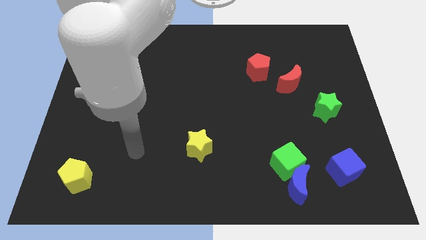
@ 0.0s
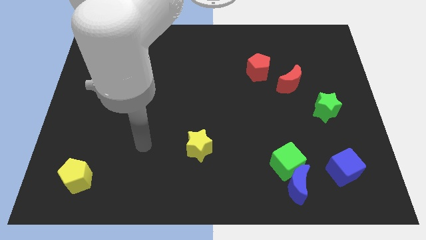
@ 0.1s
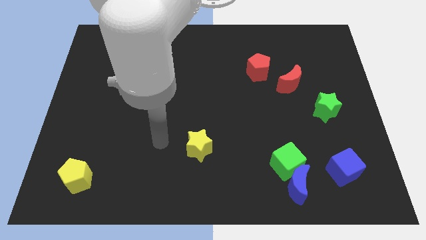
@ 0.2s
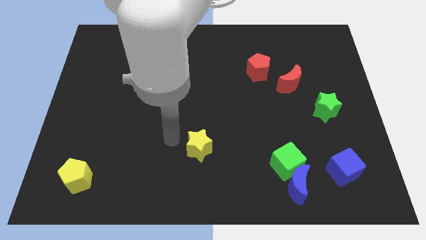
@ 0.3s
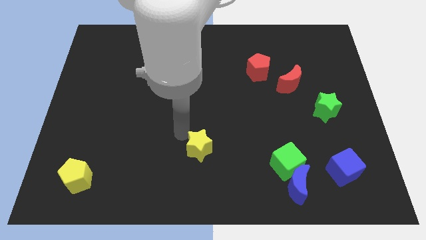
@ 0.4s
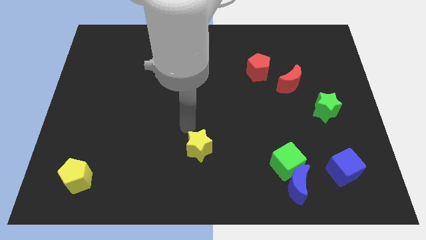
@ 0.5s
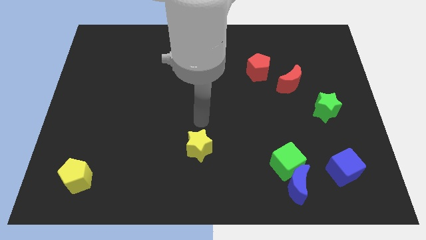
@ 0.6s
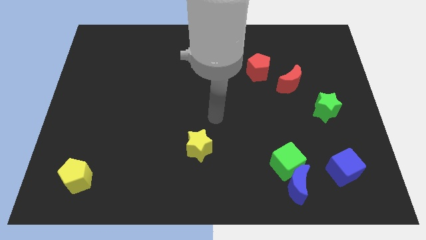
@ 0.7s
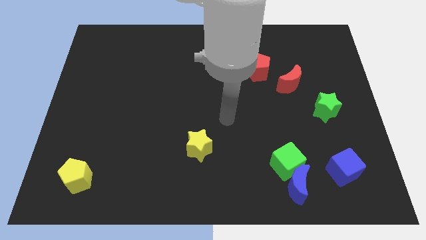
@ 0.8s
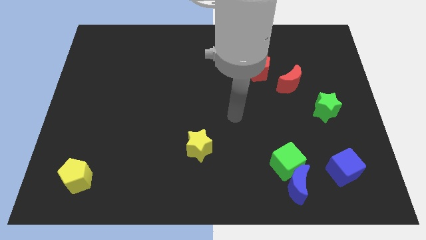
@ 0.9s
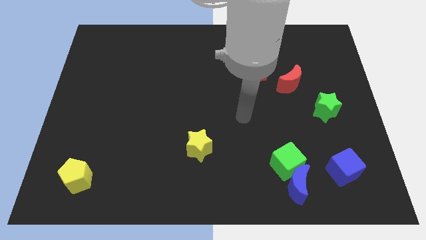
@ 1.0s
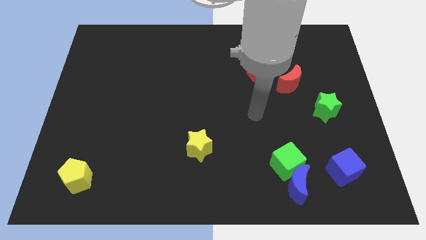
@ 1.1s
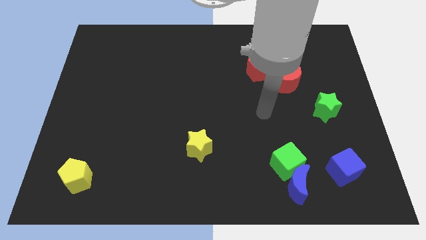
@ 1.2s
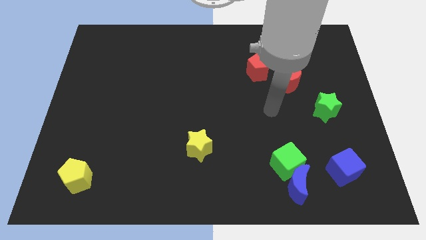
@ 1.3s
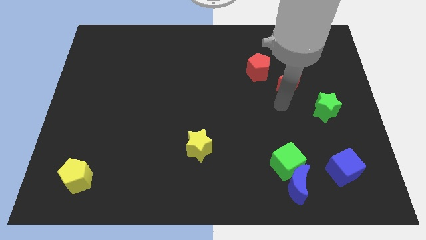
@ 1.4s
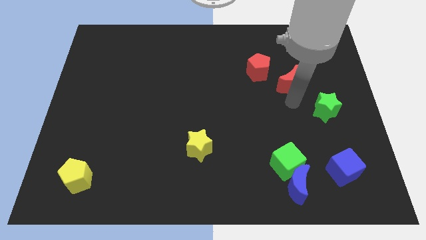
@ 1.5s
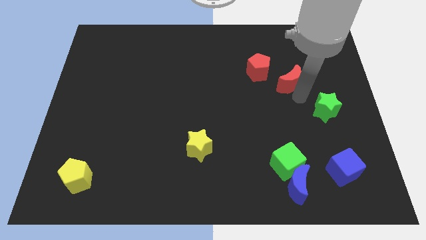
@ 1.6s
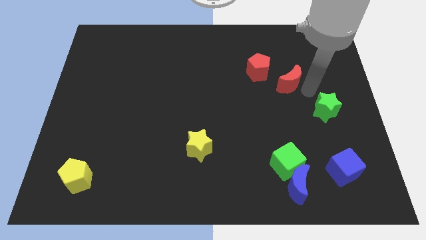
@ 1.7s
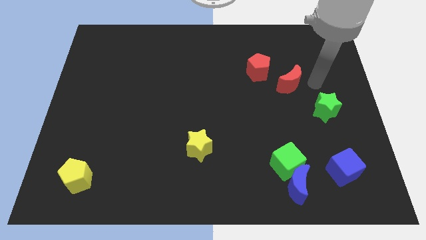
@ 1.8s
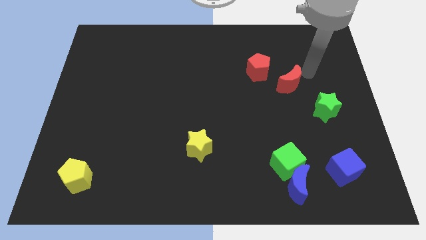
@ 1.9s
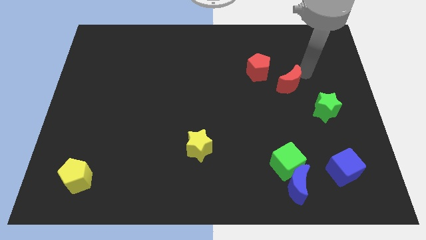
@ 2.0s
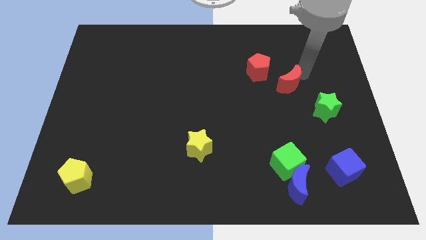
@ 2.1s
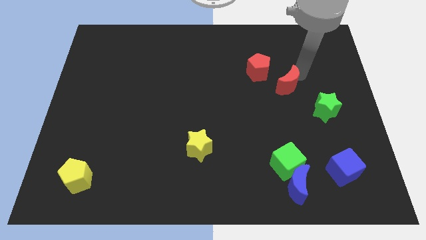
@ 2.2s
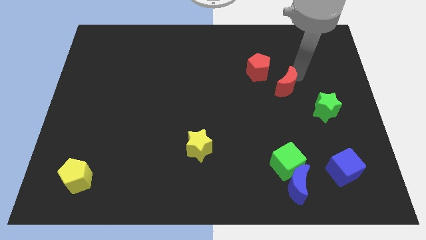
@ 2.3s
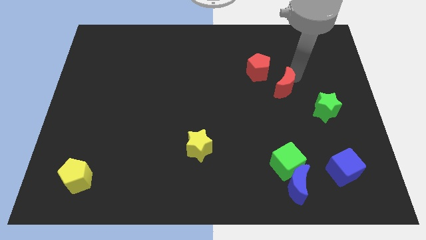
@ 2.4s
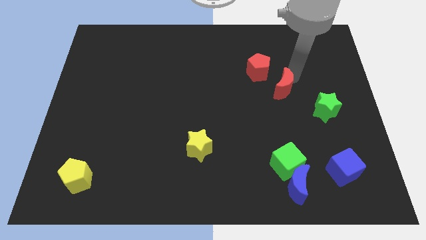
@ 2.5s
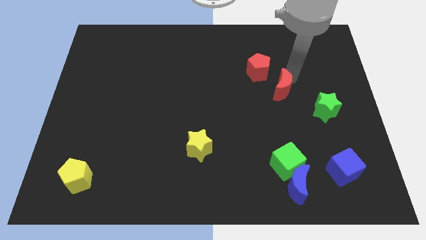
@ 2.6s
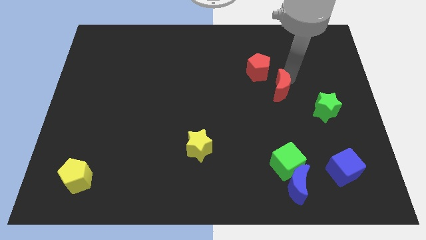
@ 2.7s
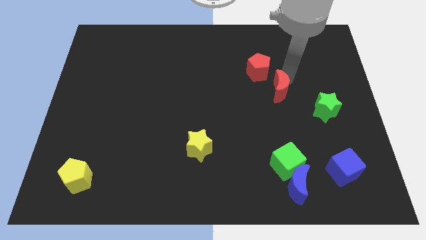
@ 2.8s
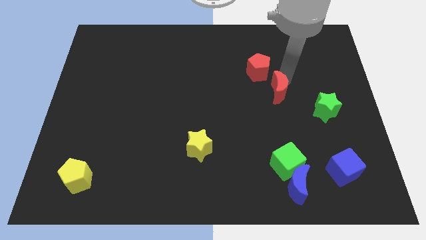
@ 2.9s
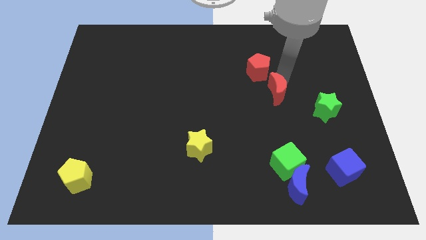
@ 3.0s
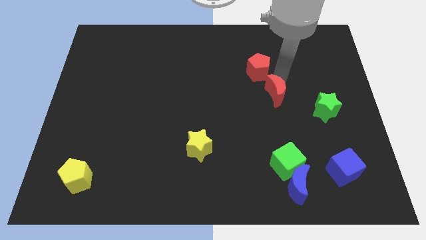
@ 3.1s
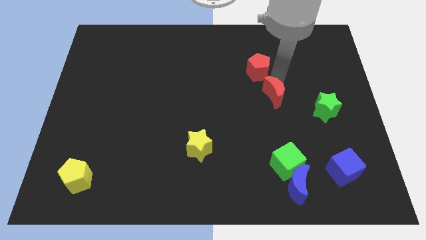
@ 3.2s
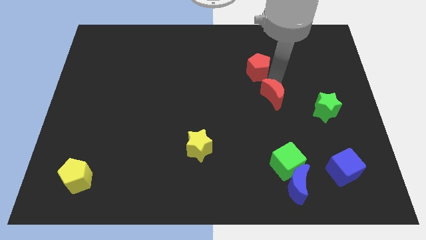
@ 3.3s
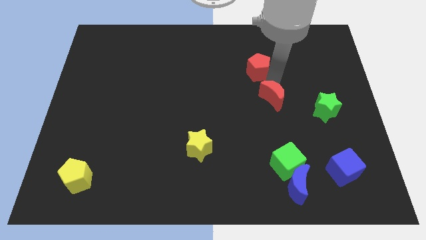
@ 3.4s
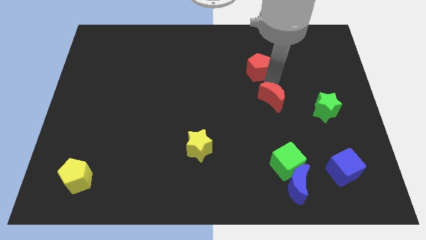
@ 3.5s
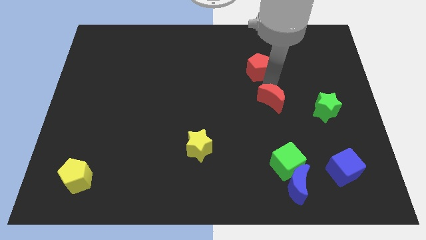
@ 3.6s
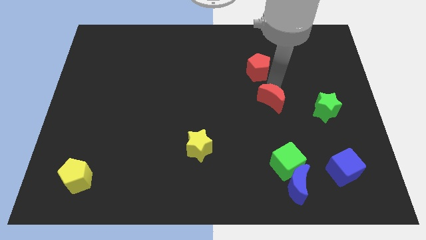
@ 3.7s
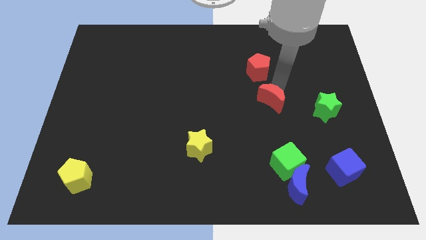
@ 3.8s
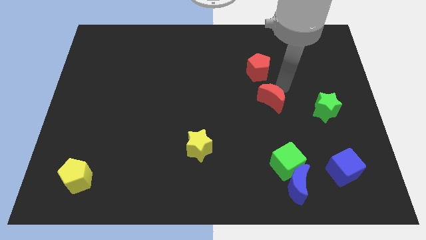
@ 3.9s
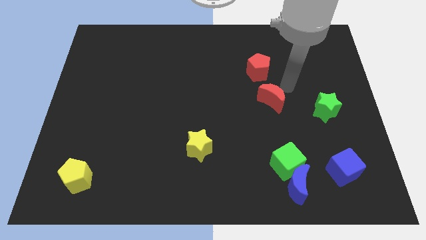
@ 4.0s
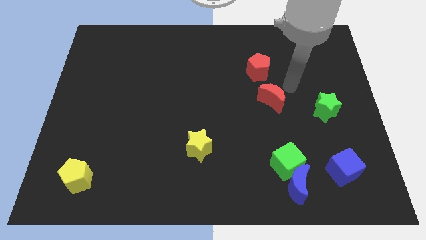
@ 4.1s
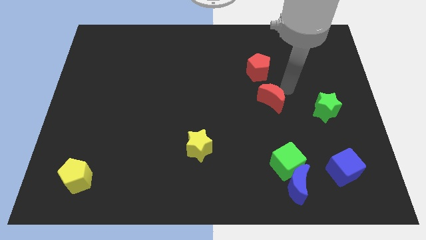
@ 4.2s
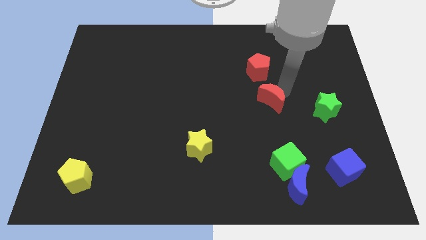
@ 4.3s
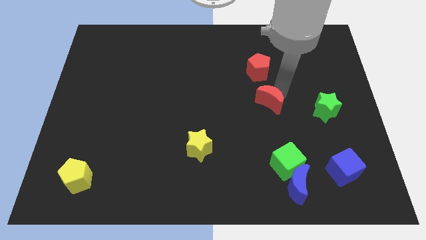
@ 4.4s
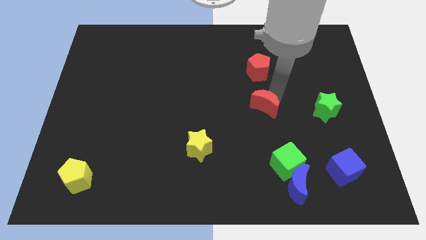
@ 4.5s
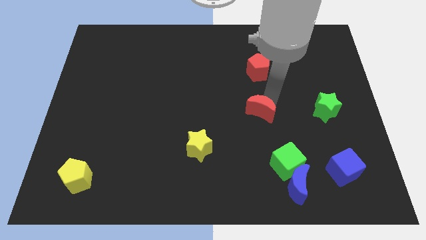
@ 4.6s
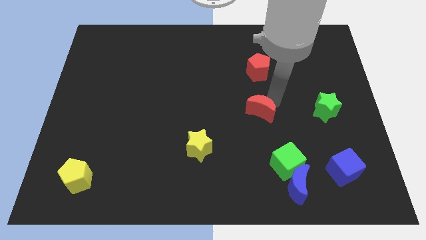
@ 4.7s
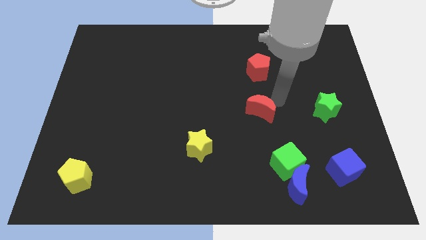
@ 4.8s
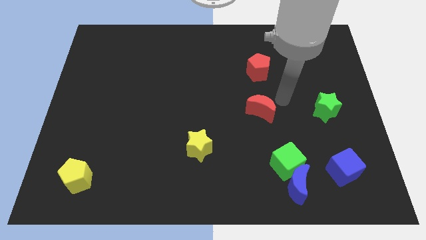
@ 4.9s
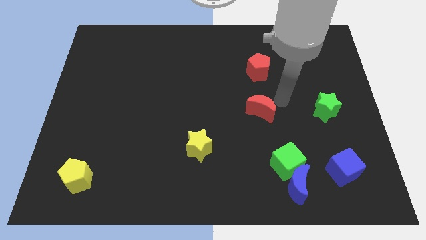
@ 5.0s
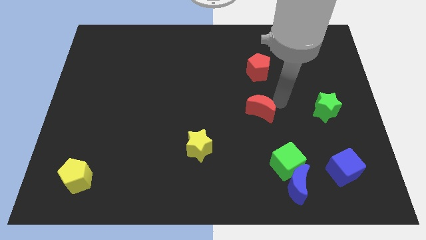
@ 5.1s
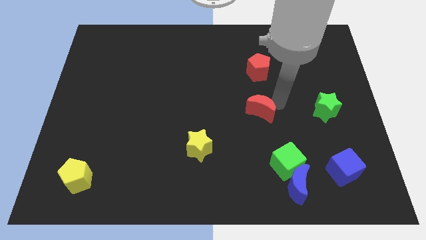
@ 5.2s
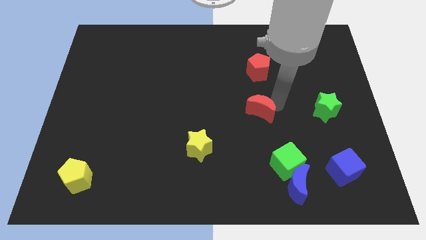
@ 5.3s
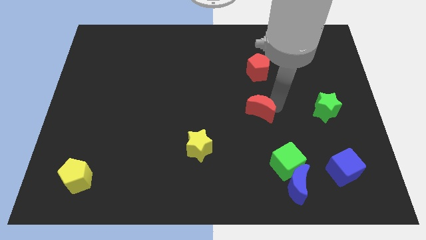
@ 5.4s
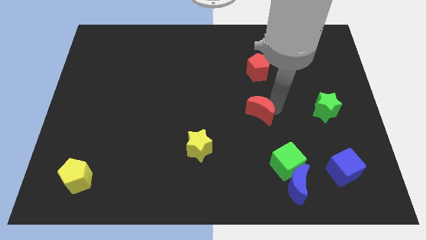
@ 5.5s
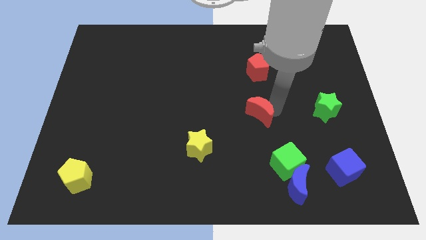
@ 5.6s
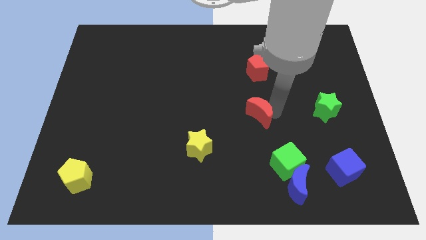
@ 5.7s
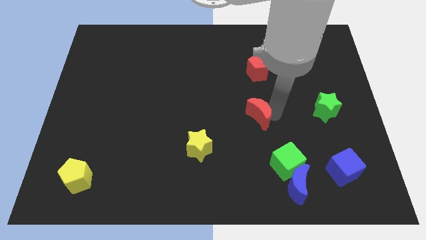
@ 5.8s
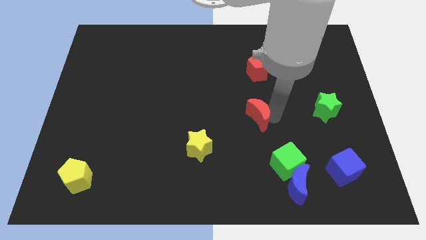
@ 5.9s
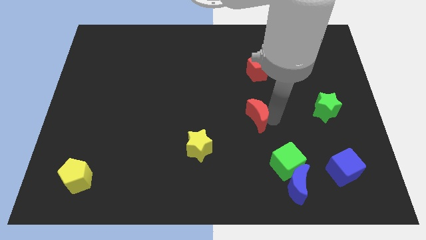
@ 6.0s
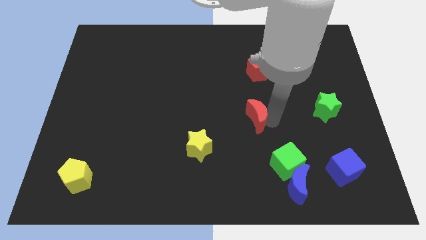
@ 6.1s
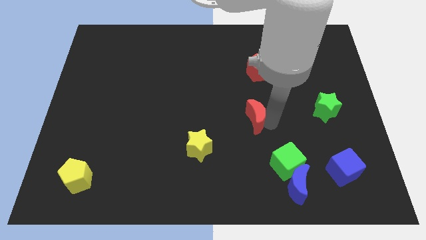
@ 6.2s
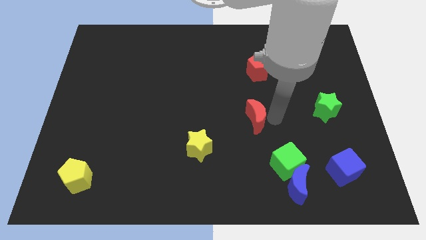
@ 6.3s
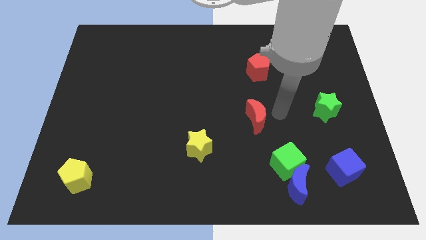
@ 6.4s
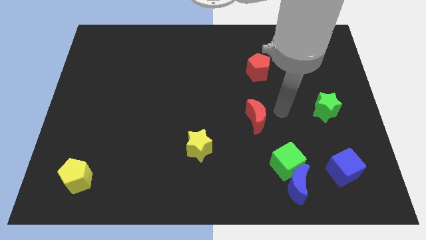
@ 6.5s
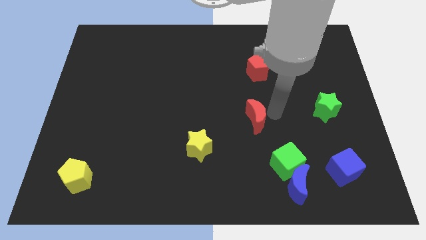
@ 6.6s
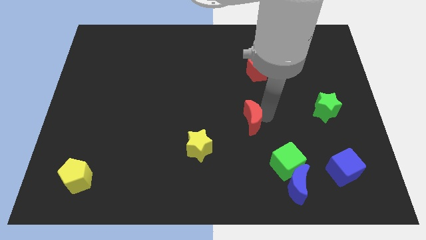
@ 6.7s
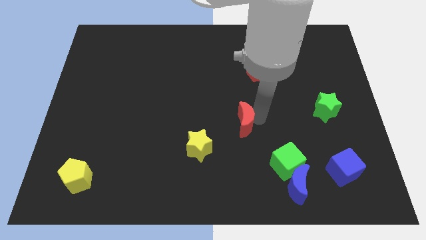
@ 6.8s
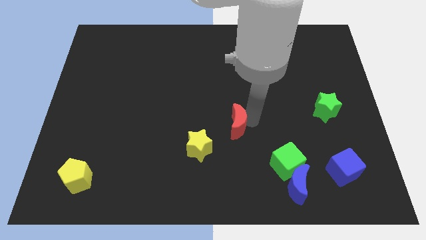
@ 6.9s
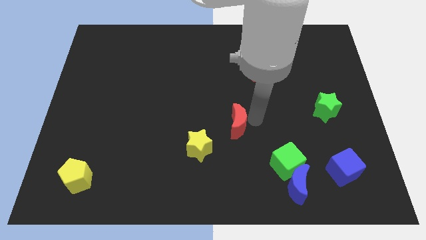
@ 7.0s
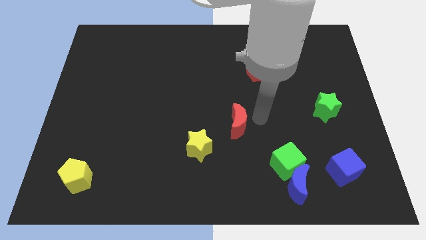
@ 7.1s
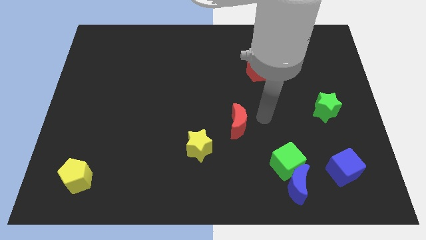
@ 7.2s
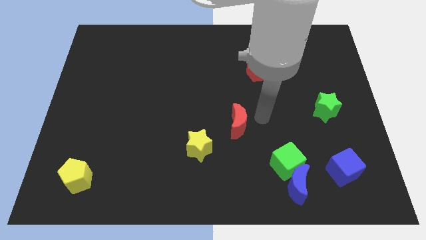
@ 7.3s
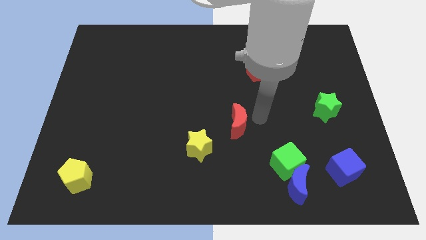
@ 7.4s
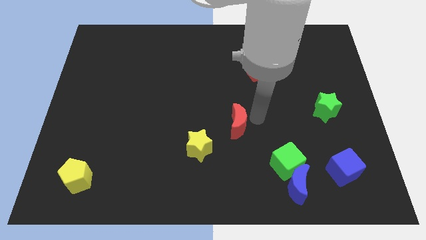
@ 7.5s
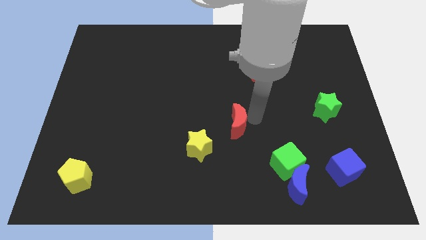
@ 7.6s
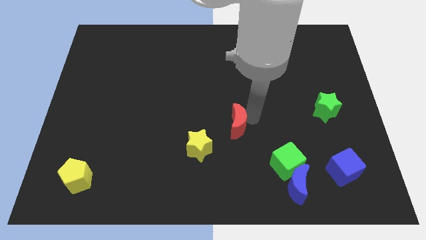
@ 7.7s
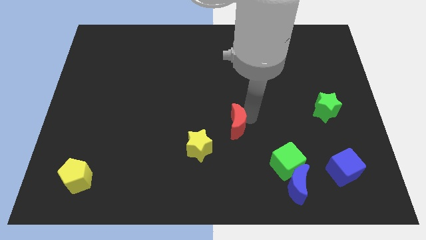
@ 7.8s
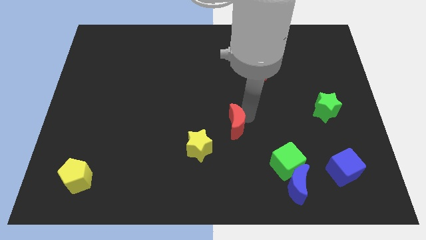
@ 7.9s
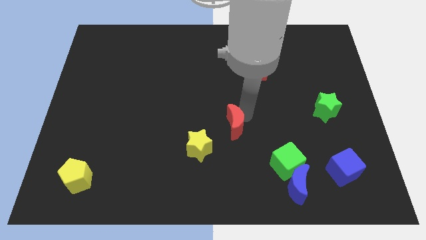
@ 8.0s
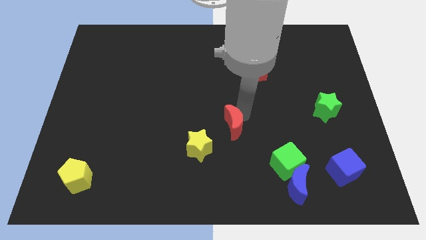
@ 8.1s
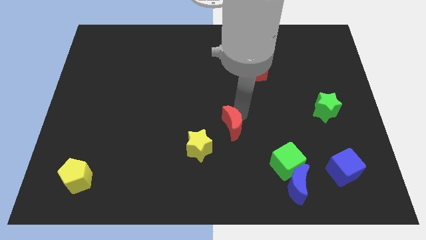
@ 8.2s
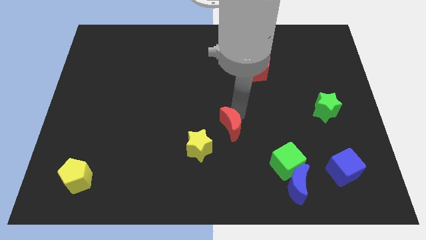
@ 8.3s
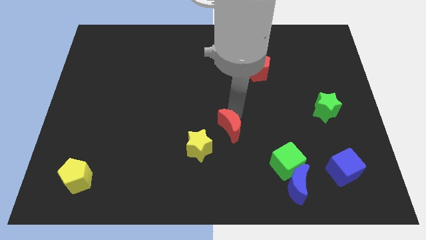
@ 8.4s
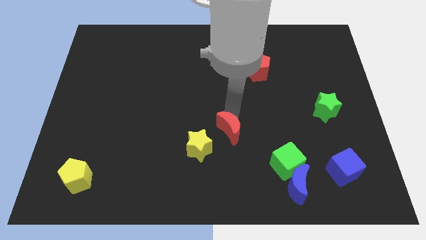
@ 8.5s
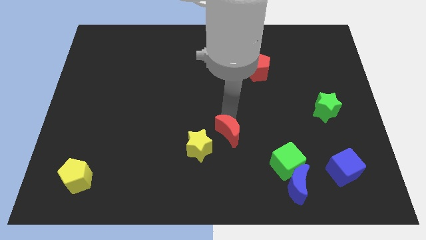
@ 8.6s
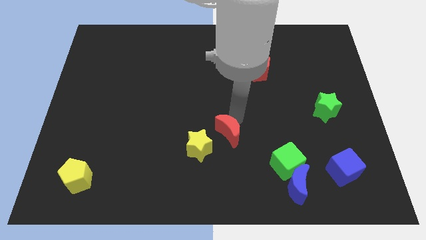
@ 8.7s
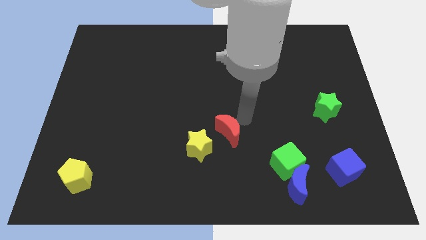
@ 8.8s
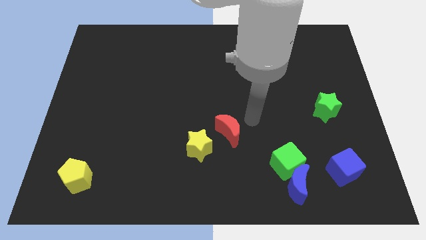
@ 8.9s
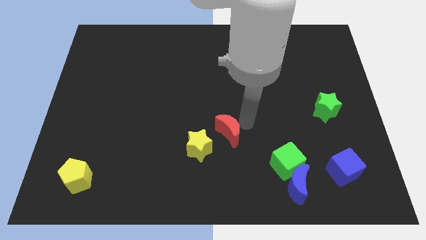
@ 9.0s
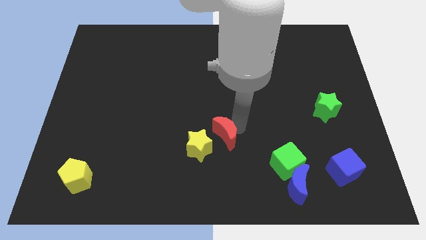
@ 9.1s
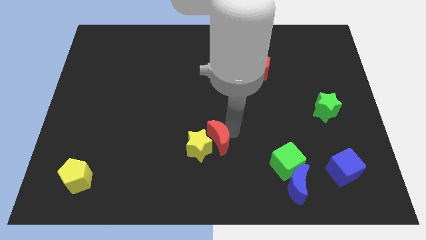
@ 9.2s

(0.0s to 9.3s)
put the red moon next to the yellow star
